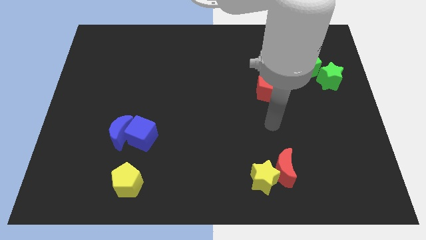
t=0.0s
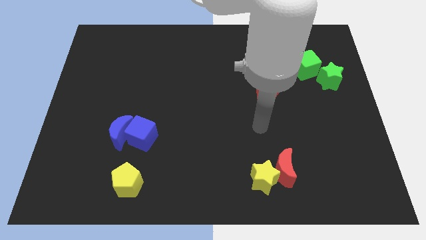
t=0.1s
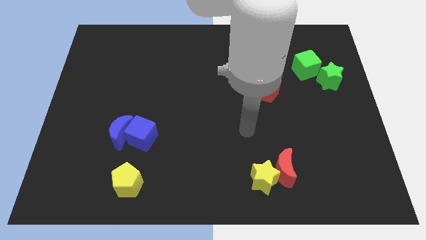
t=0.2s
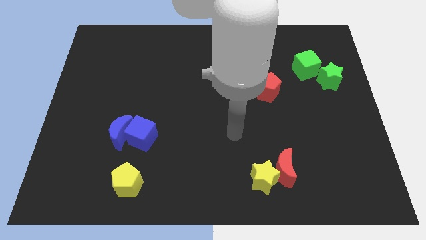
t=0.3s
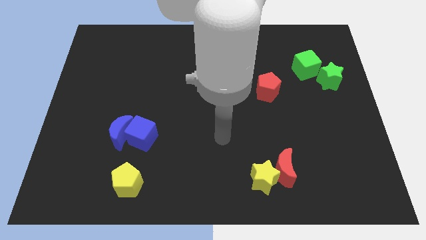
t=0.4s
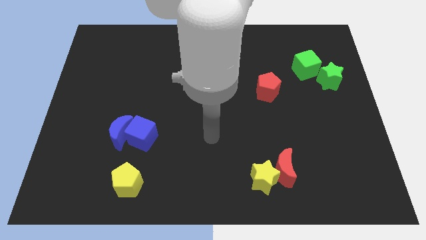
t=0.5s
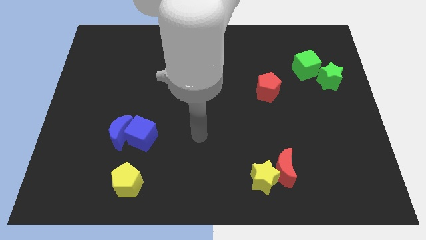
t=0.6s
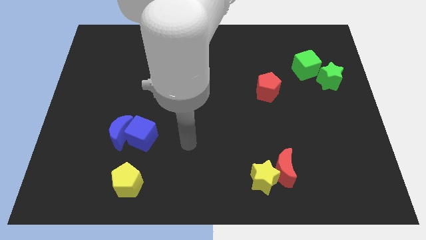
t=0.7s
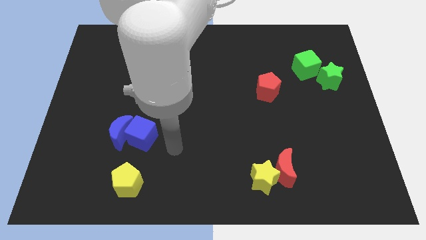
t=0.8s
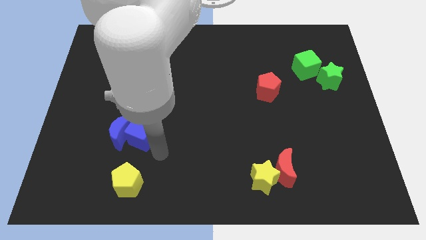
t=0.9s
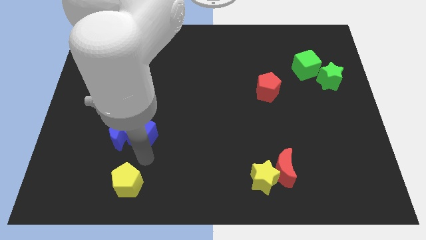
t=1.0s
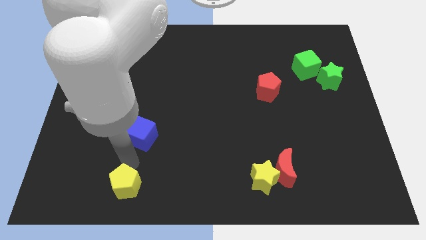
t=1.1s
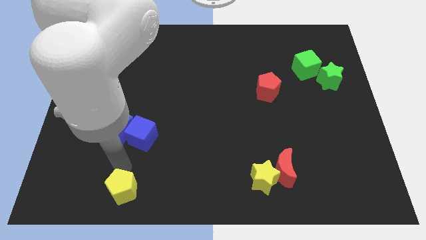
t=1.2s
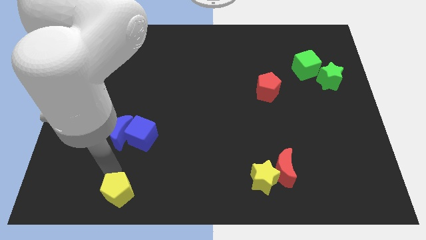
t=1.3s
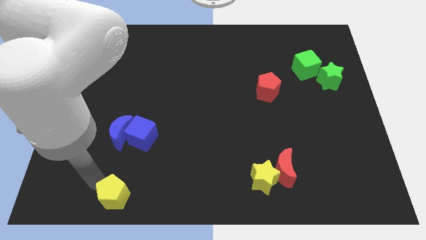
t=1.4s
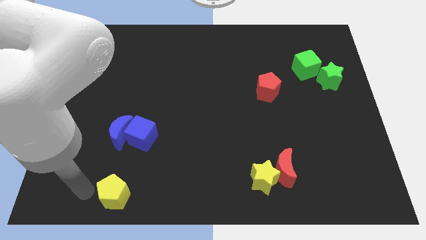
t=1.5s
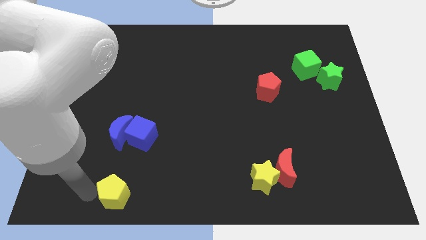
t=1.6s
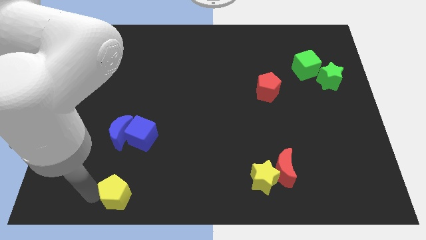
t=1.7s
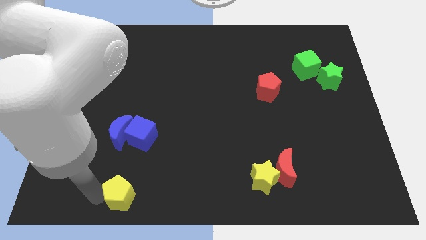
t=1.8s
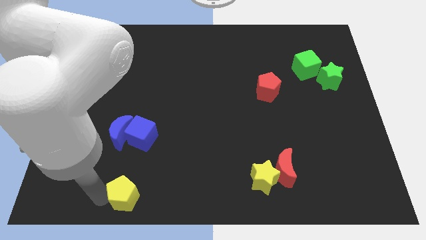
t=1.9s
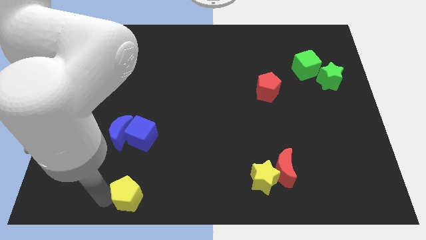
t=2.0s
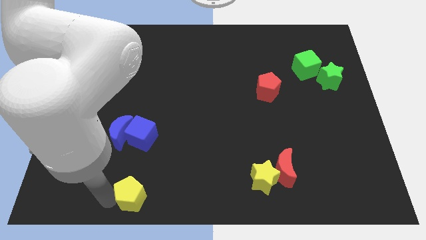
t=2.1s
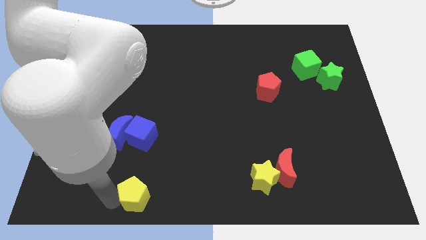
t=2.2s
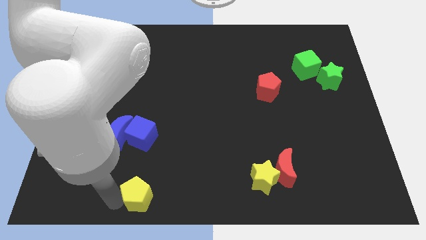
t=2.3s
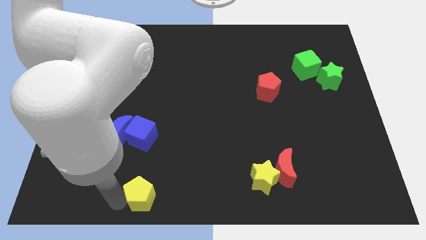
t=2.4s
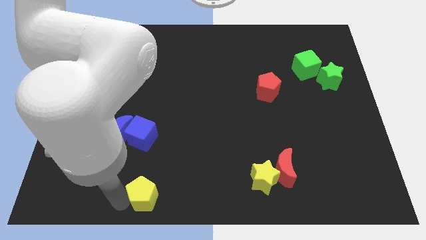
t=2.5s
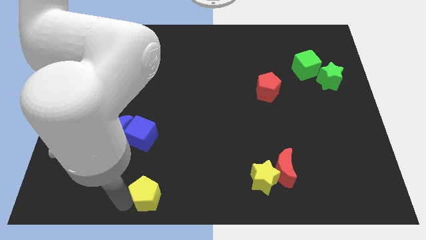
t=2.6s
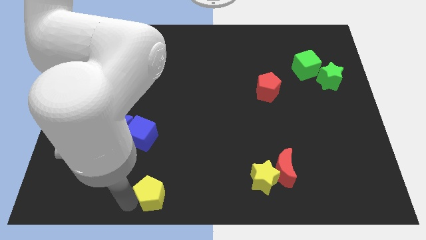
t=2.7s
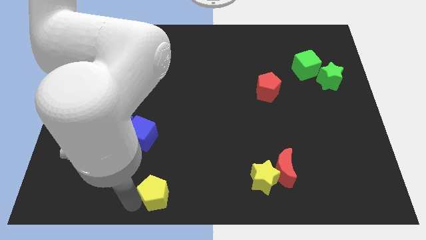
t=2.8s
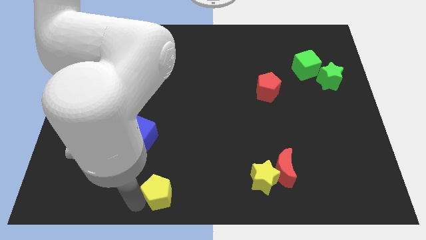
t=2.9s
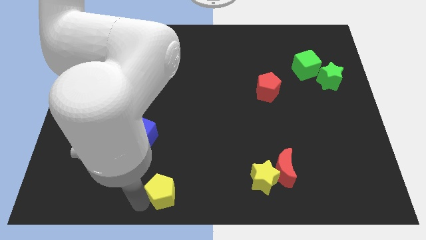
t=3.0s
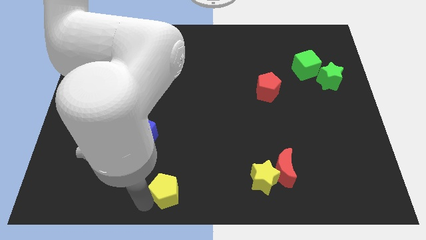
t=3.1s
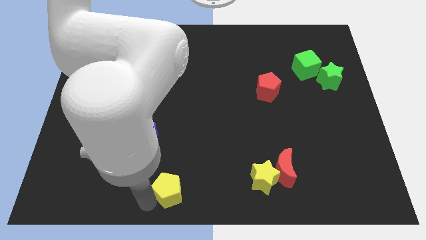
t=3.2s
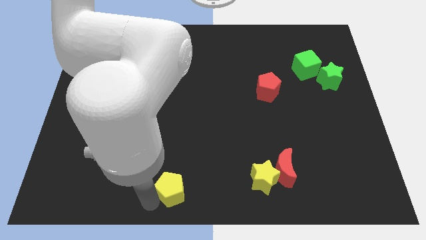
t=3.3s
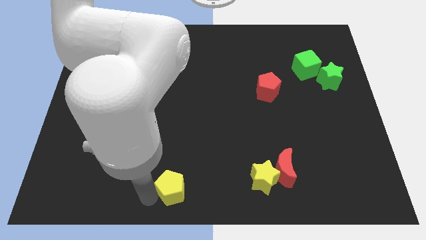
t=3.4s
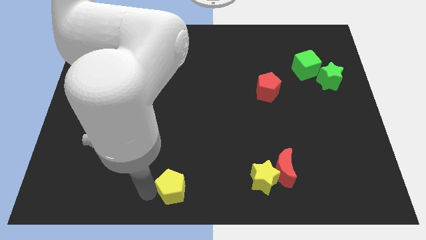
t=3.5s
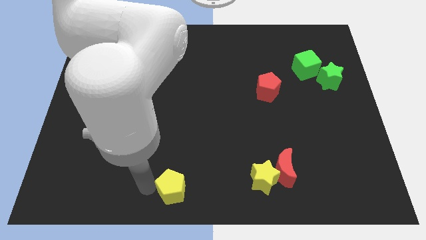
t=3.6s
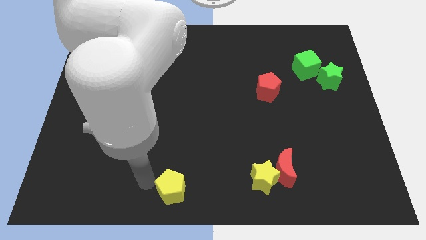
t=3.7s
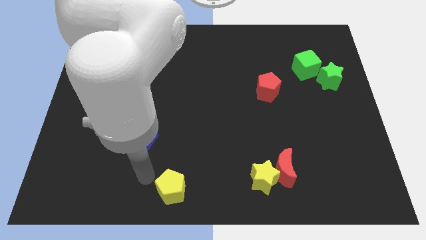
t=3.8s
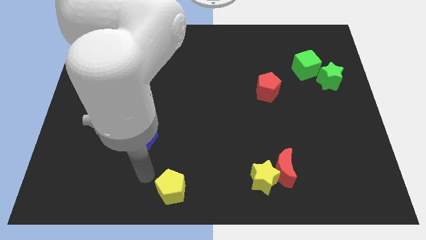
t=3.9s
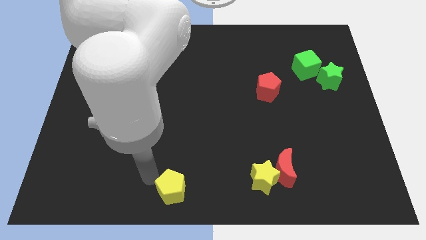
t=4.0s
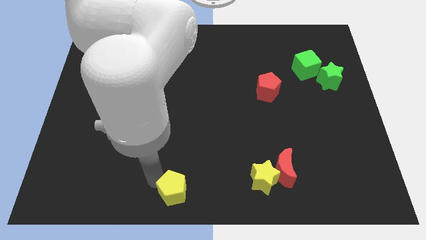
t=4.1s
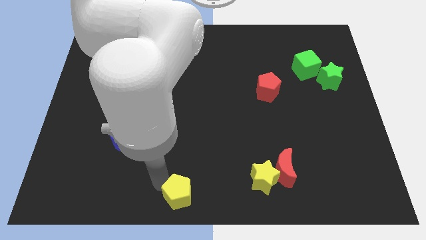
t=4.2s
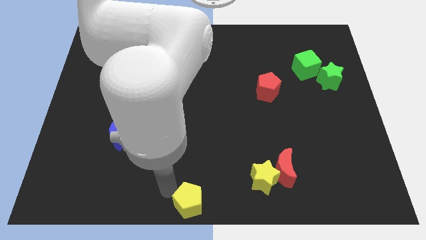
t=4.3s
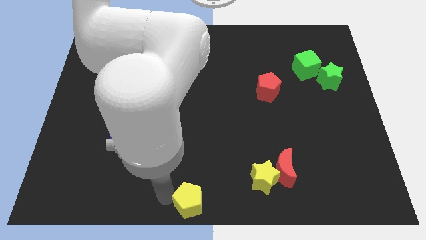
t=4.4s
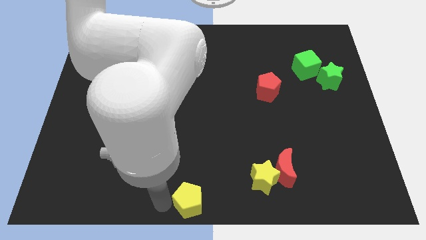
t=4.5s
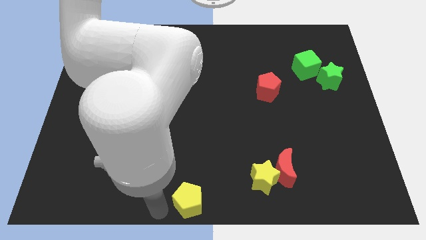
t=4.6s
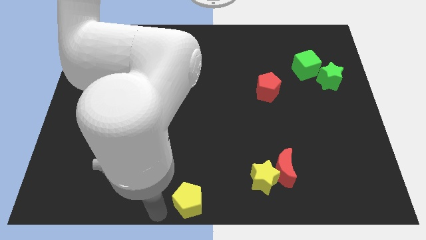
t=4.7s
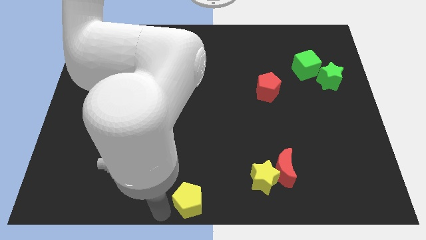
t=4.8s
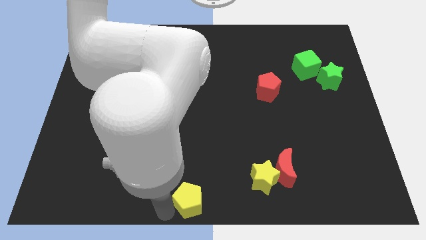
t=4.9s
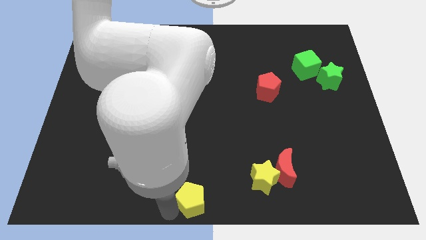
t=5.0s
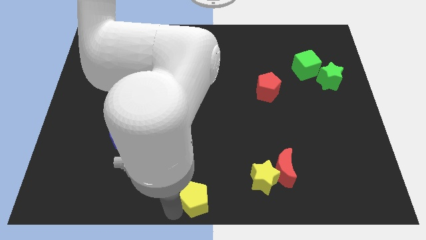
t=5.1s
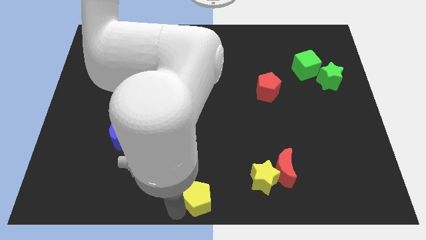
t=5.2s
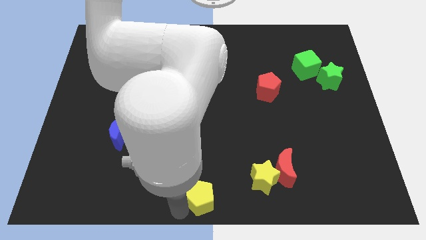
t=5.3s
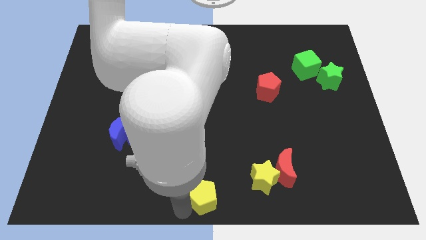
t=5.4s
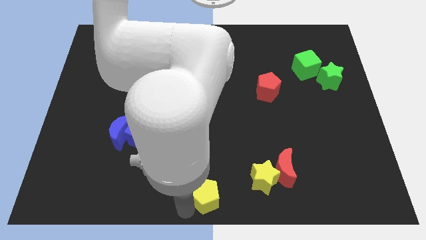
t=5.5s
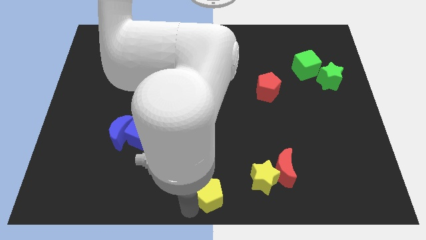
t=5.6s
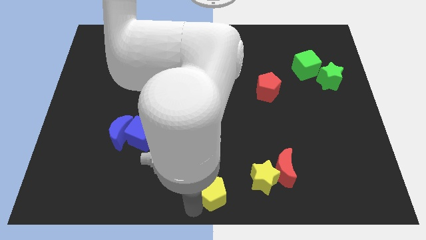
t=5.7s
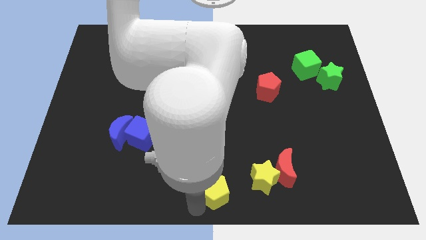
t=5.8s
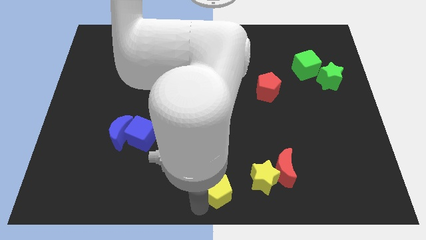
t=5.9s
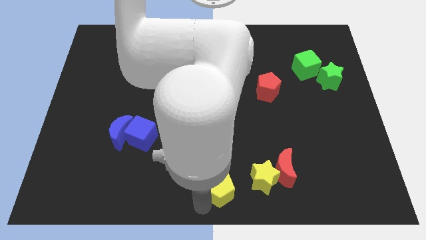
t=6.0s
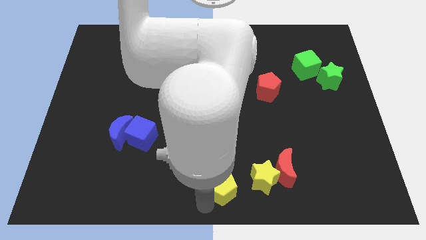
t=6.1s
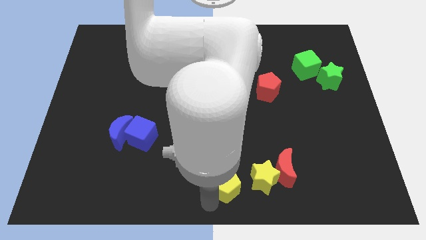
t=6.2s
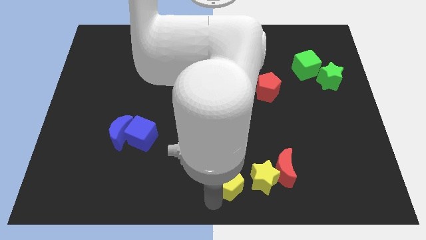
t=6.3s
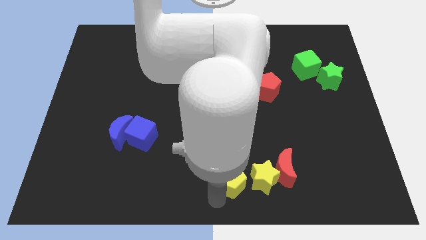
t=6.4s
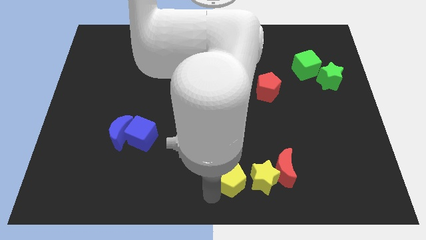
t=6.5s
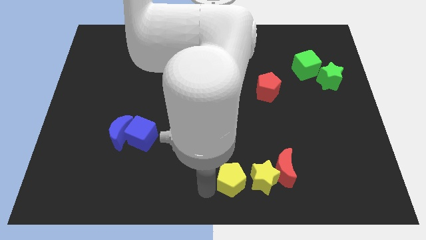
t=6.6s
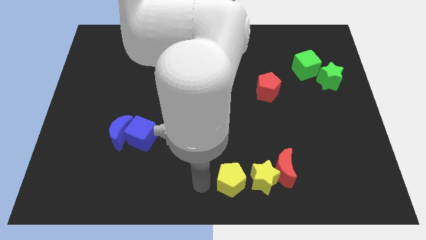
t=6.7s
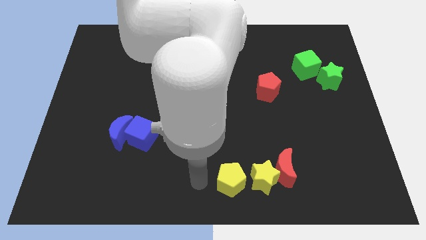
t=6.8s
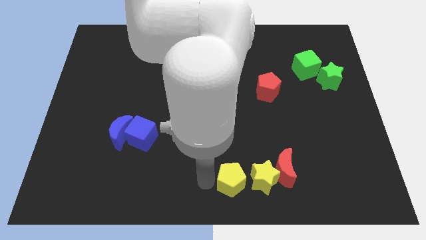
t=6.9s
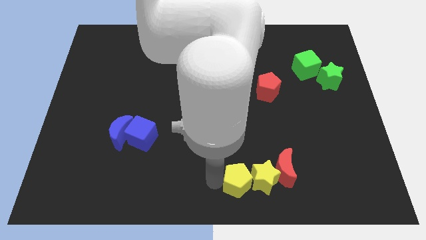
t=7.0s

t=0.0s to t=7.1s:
put the yellow pentagon close to the yellow star

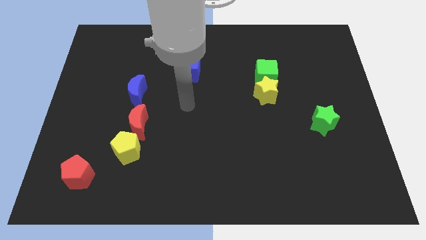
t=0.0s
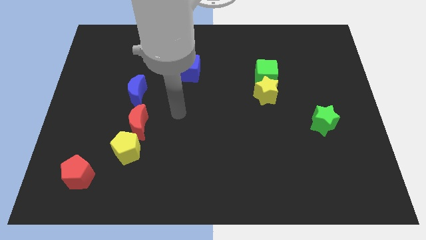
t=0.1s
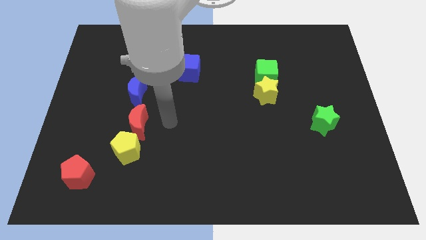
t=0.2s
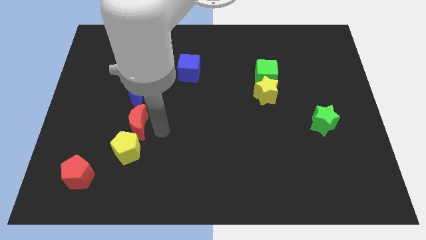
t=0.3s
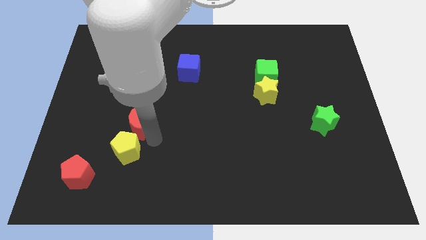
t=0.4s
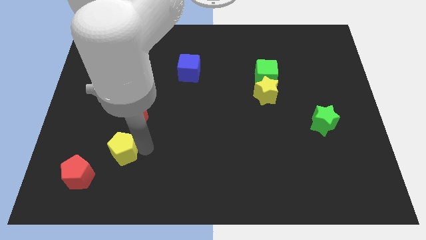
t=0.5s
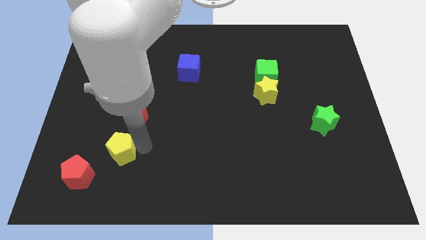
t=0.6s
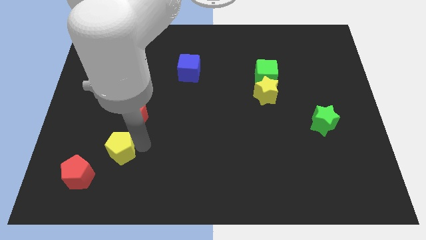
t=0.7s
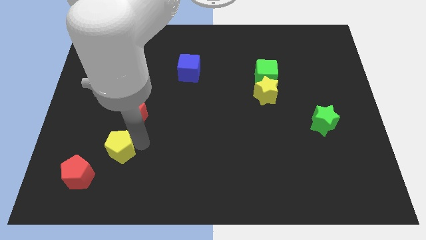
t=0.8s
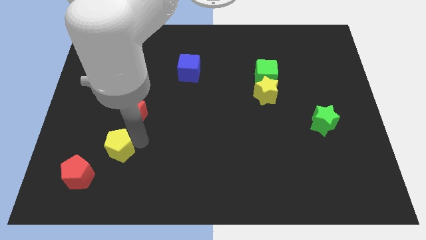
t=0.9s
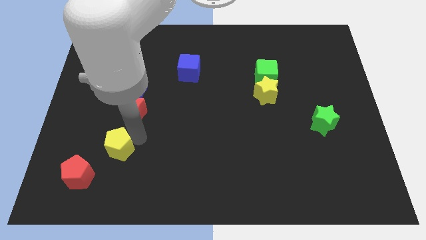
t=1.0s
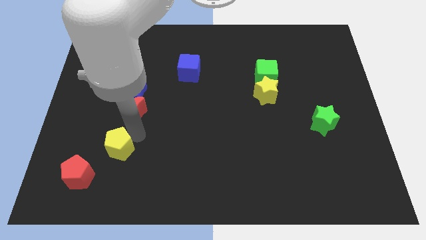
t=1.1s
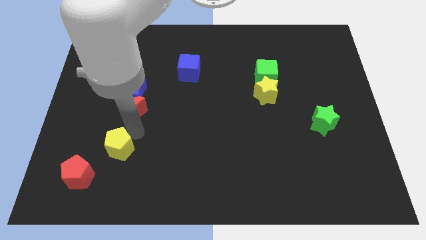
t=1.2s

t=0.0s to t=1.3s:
slide the red moon next to the blue moon
